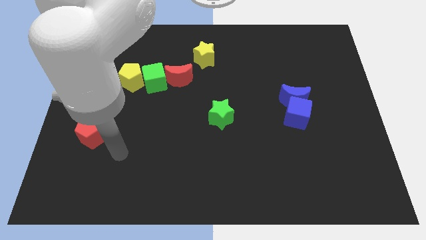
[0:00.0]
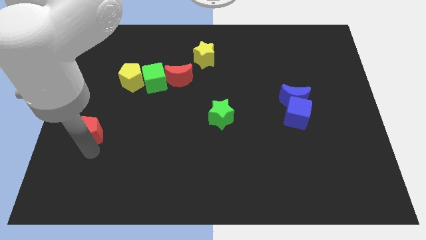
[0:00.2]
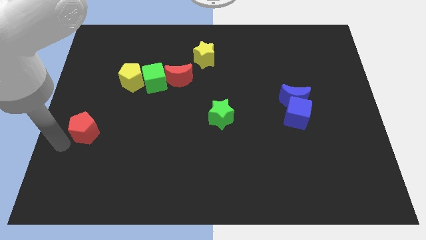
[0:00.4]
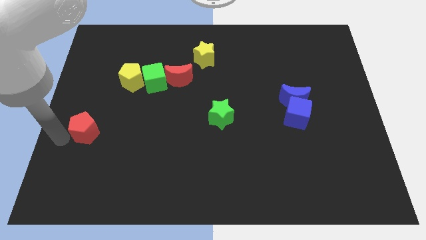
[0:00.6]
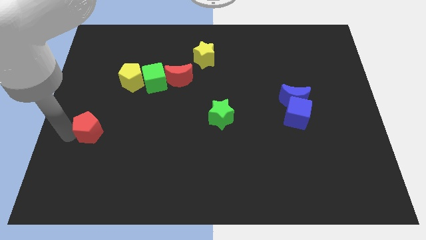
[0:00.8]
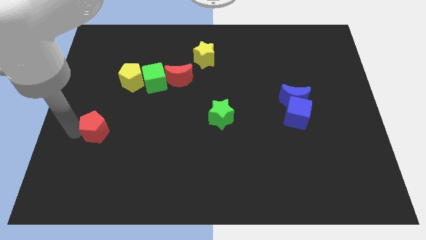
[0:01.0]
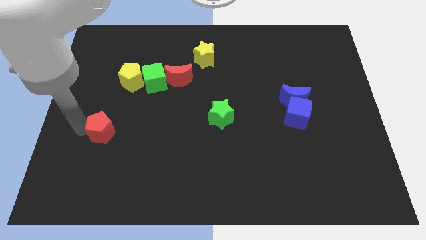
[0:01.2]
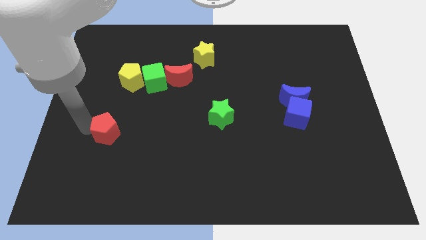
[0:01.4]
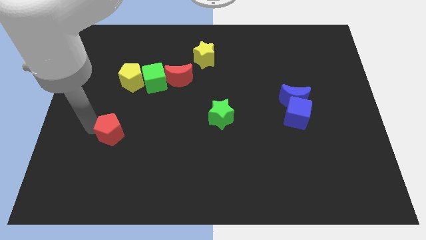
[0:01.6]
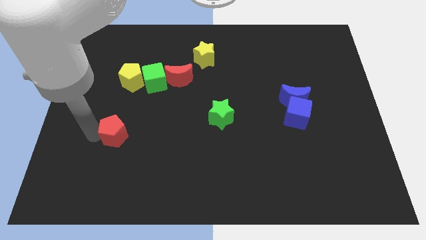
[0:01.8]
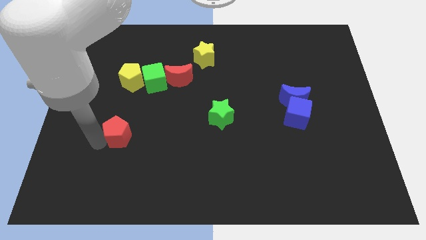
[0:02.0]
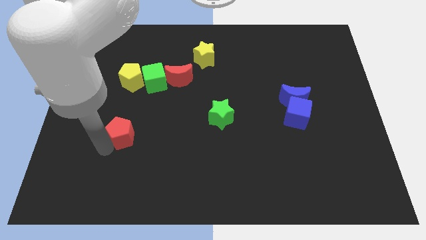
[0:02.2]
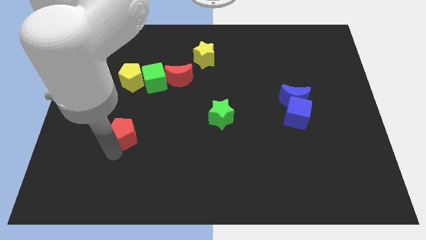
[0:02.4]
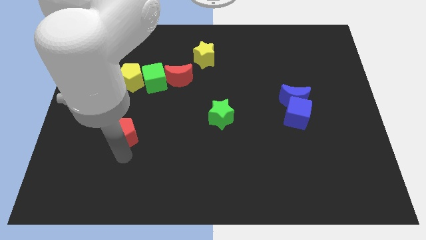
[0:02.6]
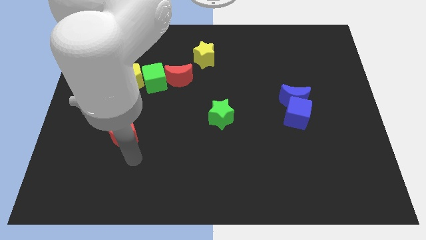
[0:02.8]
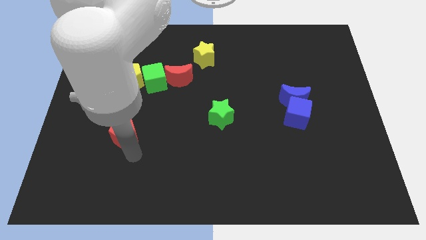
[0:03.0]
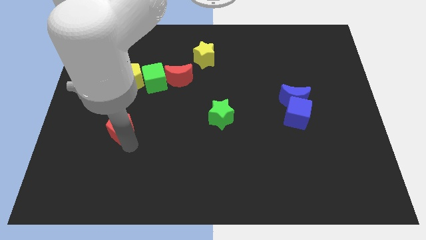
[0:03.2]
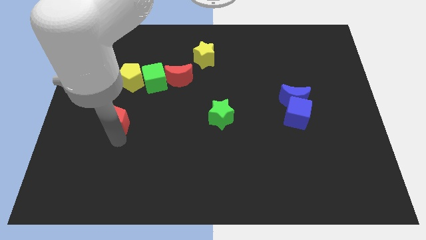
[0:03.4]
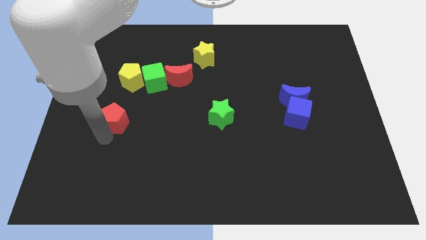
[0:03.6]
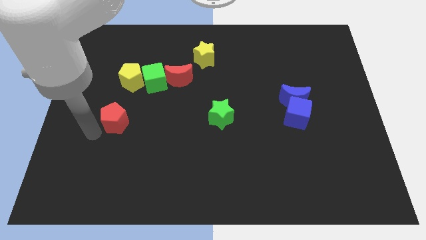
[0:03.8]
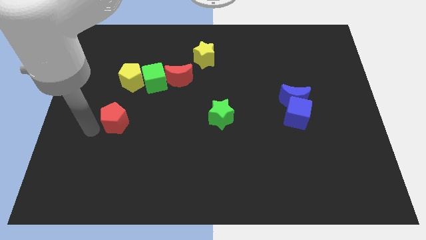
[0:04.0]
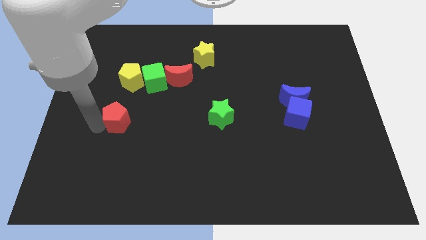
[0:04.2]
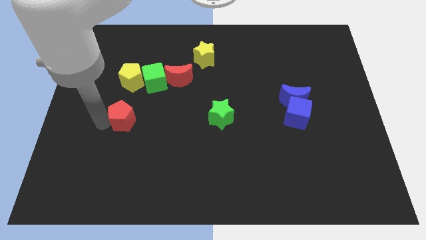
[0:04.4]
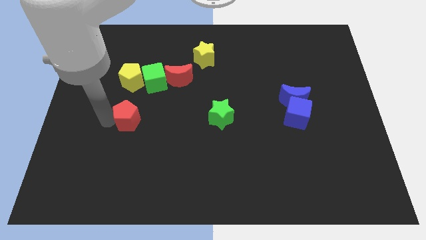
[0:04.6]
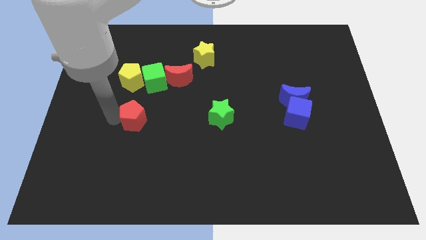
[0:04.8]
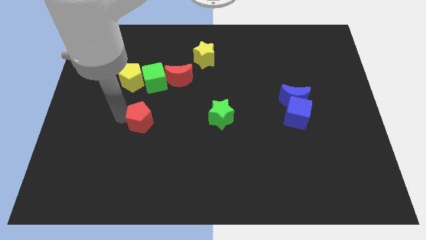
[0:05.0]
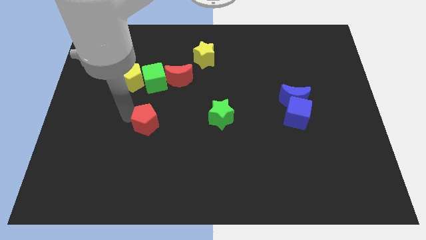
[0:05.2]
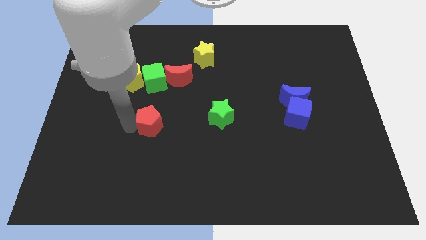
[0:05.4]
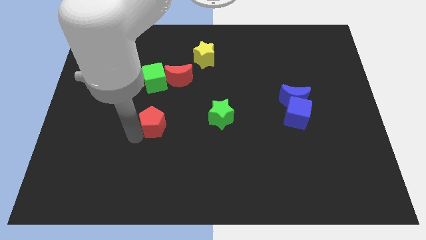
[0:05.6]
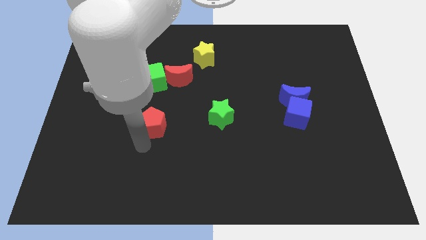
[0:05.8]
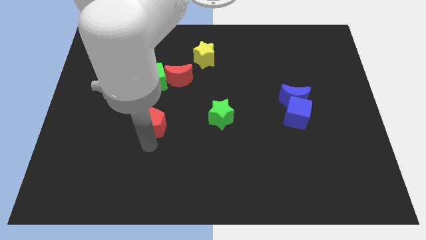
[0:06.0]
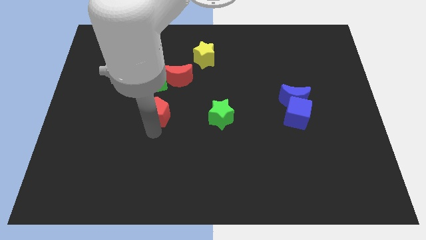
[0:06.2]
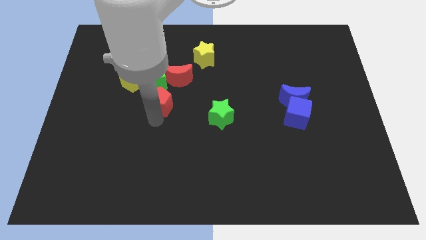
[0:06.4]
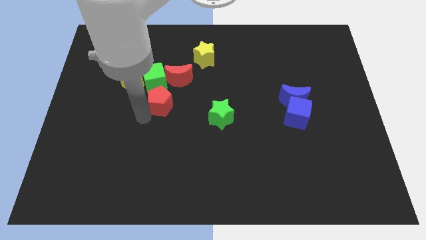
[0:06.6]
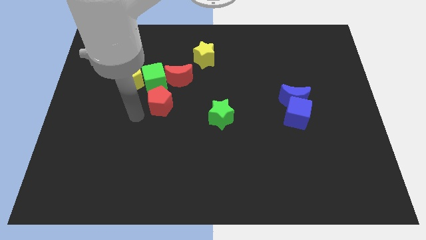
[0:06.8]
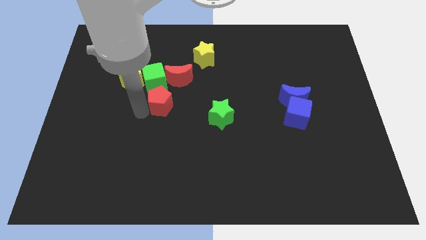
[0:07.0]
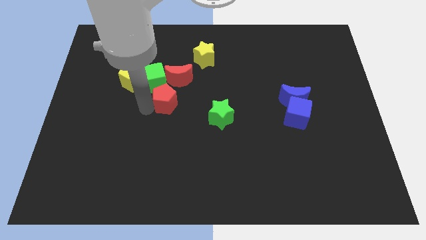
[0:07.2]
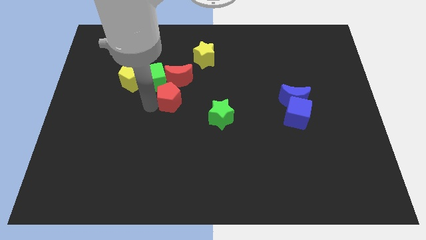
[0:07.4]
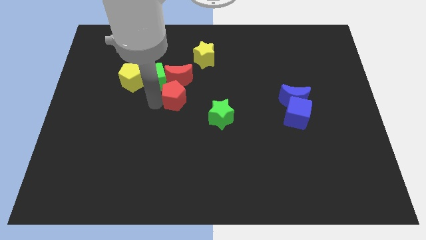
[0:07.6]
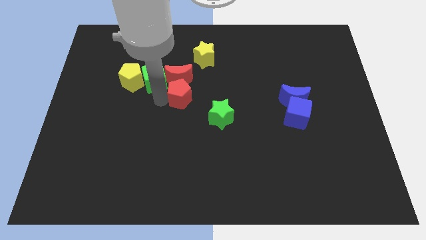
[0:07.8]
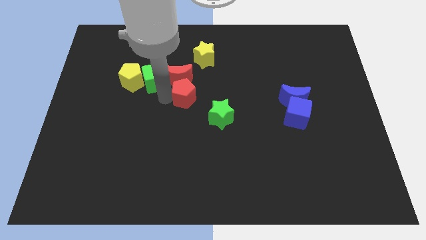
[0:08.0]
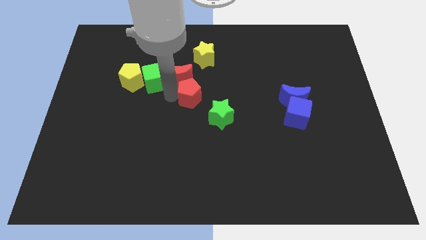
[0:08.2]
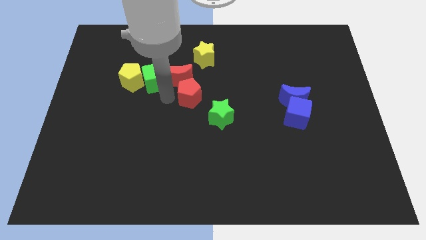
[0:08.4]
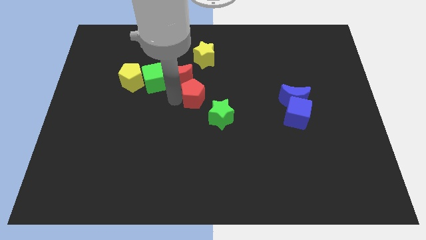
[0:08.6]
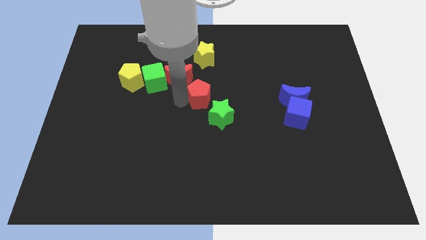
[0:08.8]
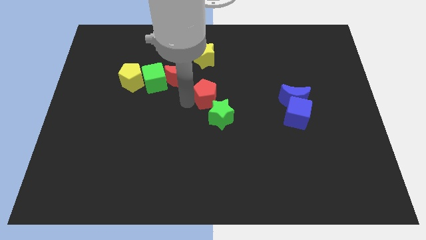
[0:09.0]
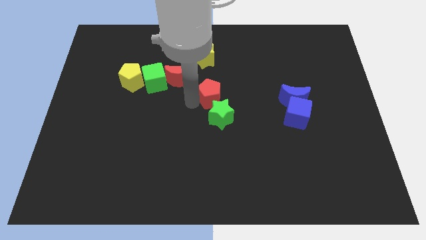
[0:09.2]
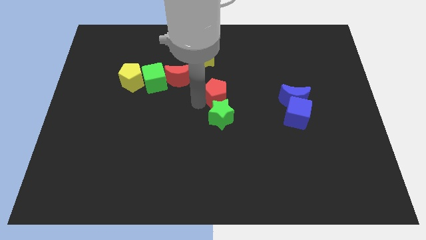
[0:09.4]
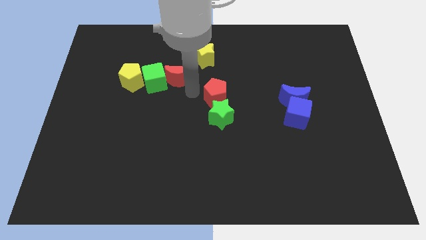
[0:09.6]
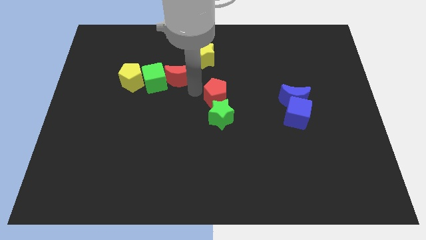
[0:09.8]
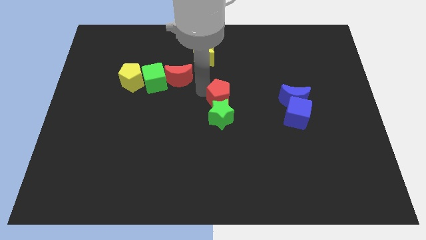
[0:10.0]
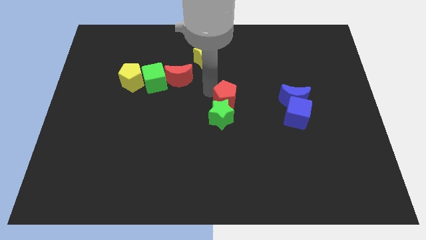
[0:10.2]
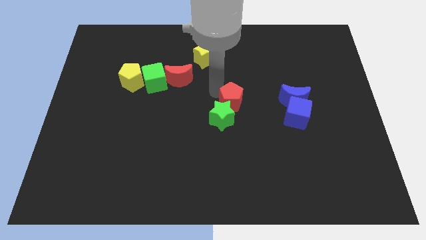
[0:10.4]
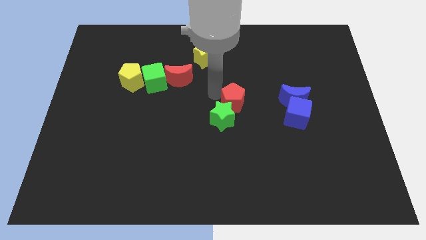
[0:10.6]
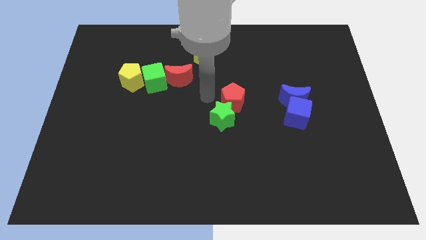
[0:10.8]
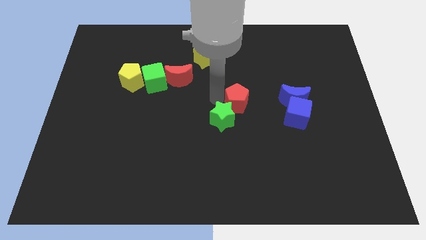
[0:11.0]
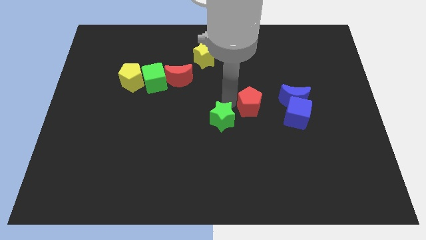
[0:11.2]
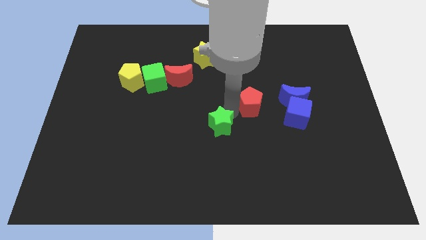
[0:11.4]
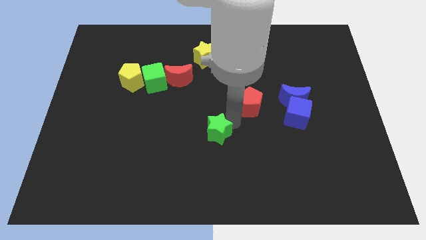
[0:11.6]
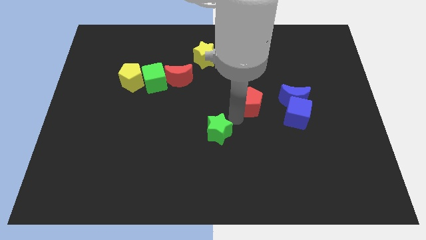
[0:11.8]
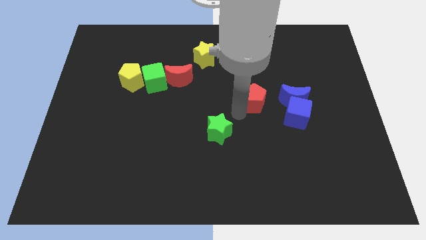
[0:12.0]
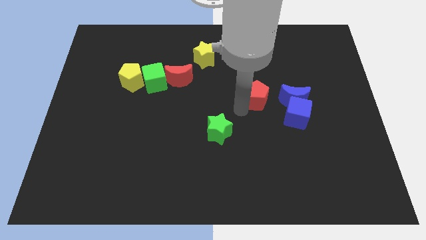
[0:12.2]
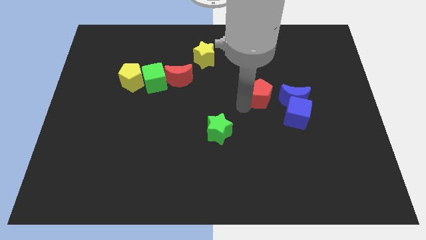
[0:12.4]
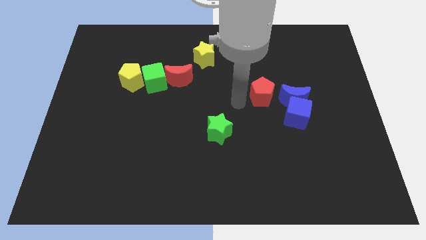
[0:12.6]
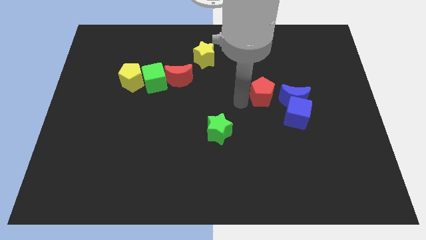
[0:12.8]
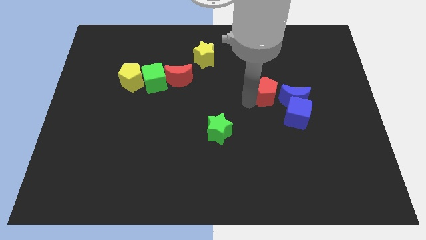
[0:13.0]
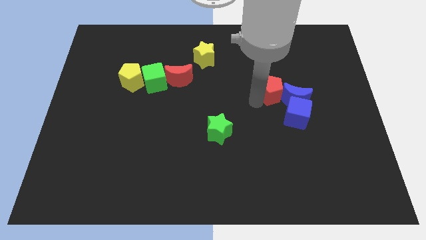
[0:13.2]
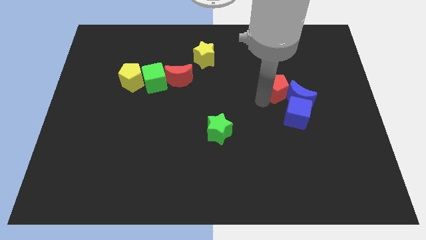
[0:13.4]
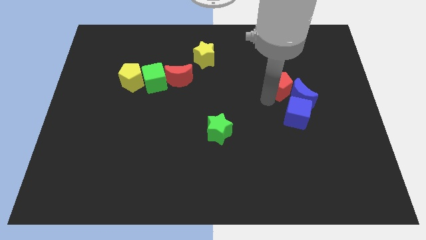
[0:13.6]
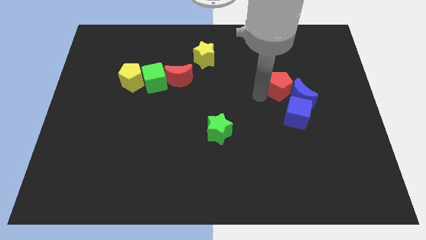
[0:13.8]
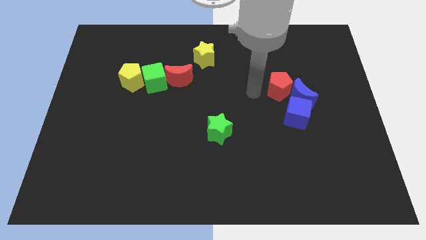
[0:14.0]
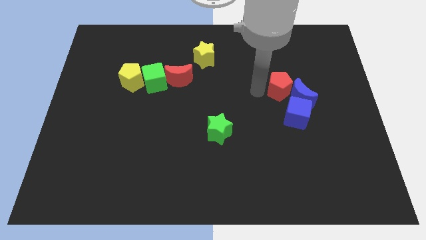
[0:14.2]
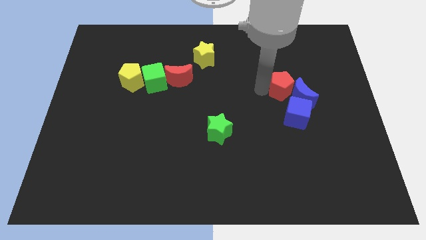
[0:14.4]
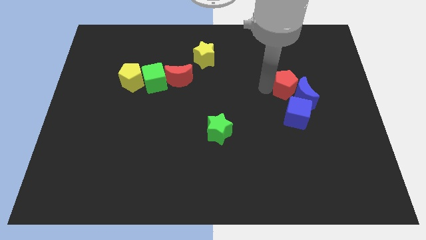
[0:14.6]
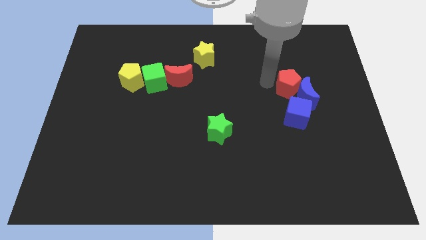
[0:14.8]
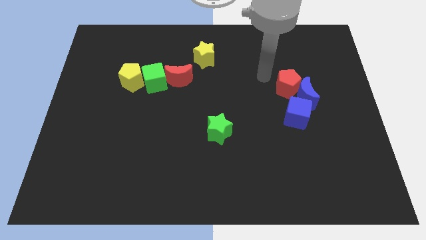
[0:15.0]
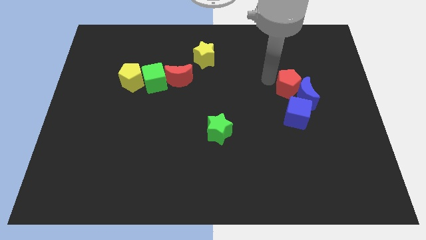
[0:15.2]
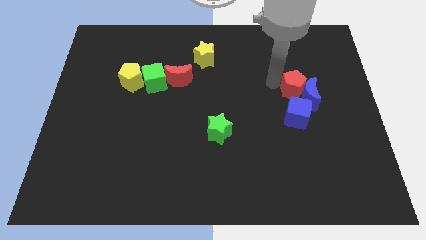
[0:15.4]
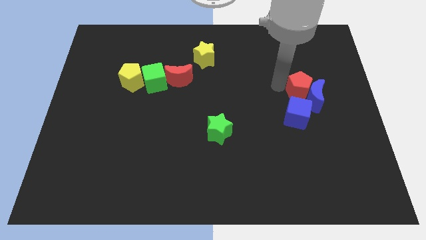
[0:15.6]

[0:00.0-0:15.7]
slide the red pentagon to the top right side of the blue cube

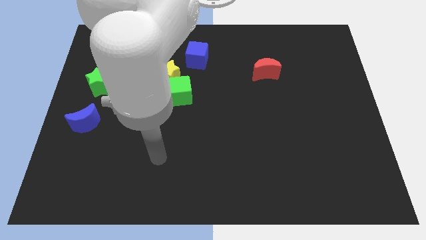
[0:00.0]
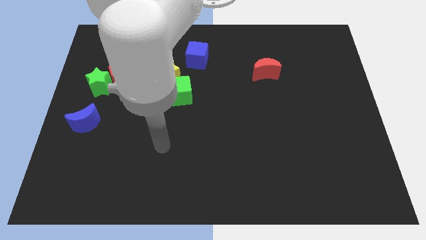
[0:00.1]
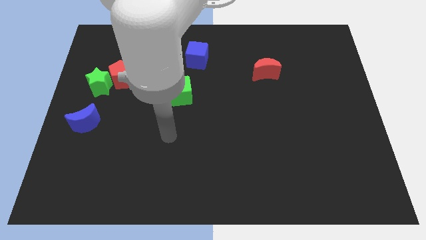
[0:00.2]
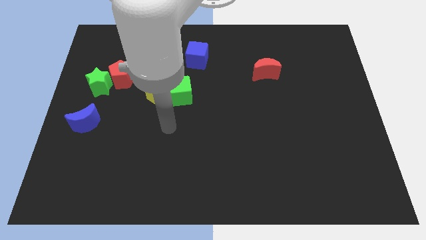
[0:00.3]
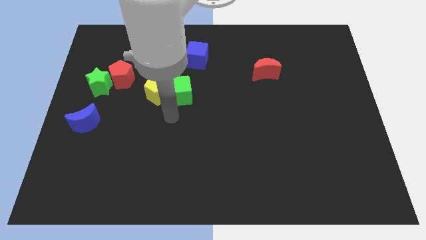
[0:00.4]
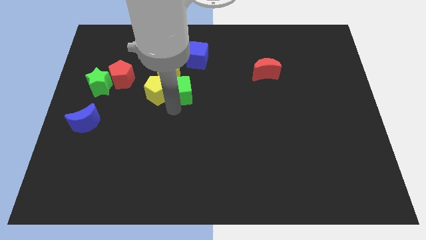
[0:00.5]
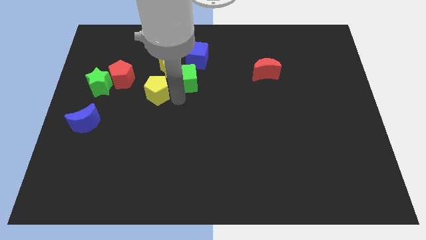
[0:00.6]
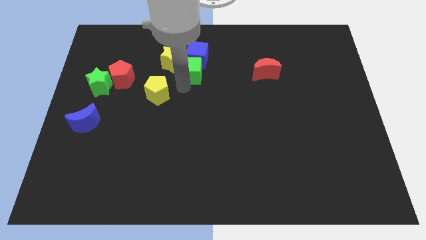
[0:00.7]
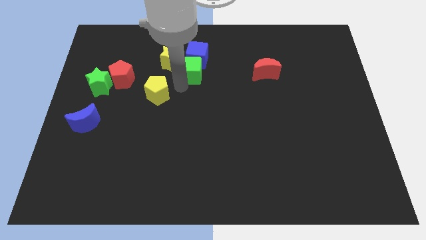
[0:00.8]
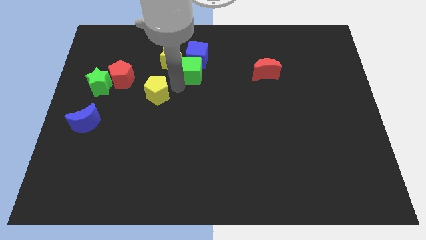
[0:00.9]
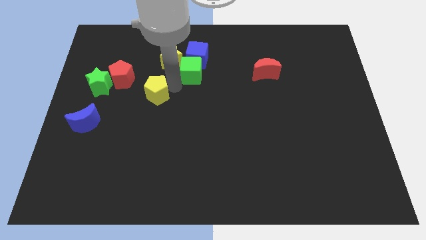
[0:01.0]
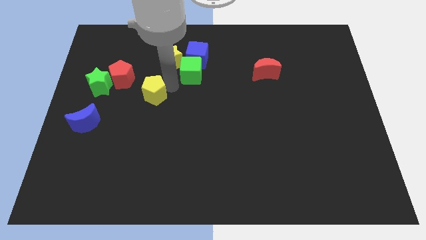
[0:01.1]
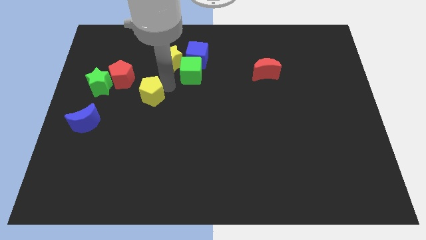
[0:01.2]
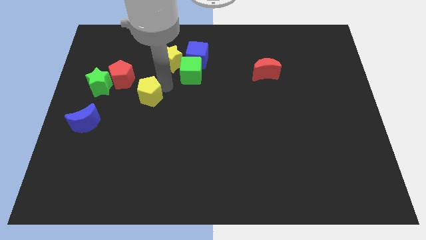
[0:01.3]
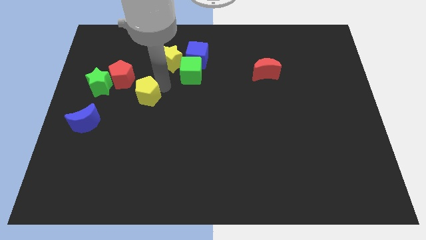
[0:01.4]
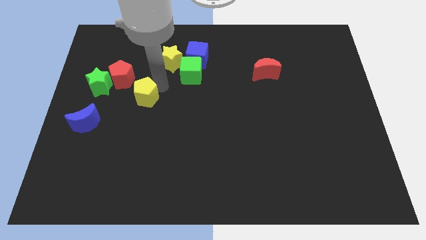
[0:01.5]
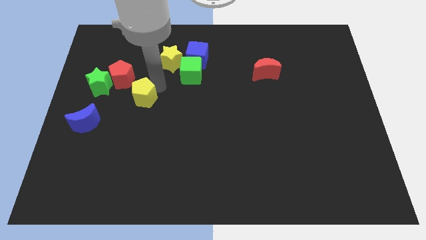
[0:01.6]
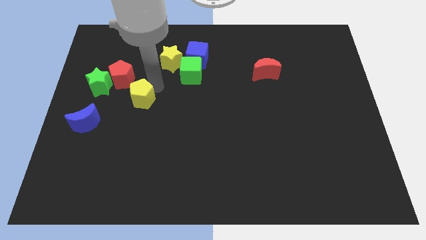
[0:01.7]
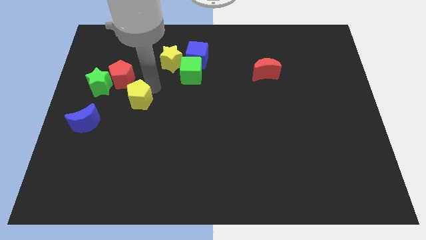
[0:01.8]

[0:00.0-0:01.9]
move the yellow pentagon to the bottom right of the green star
